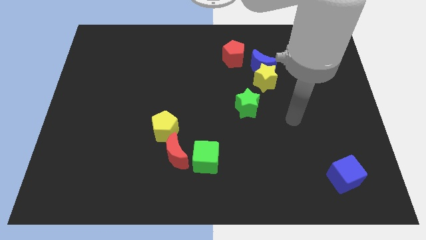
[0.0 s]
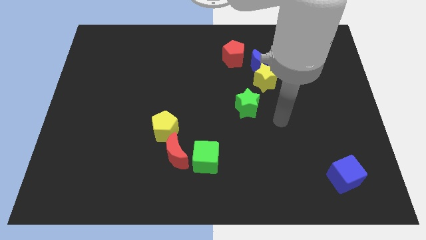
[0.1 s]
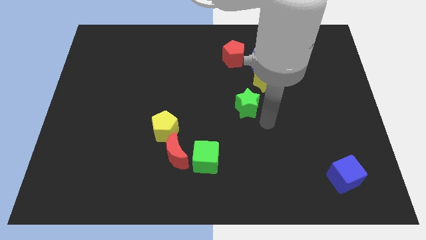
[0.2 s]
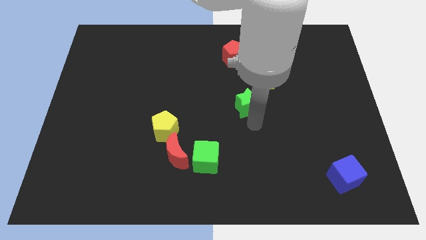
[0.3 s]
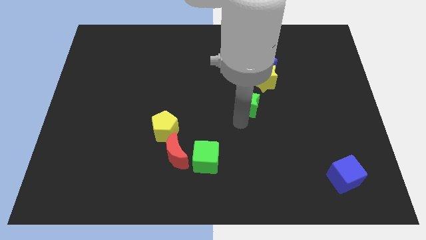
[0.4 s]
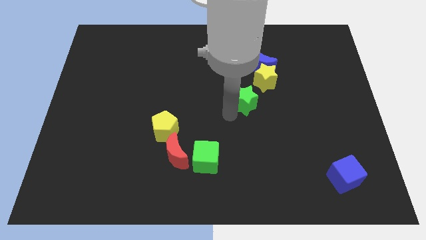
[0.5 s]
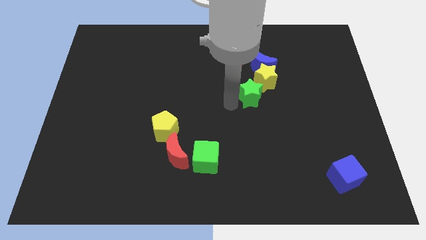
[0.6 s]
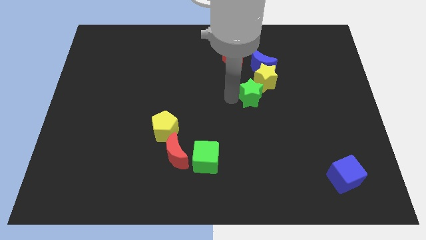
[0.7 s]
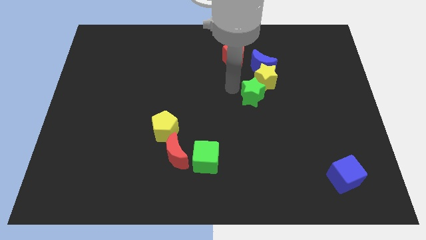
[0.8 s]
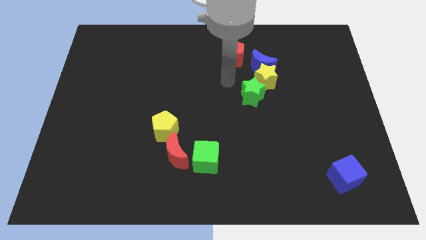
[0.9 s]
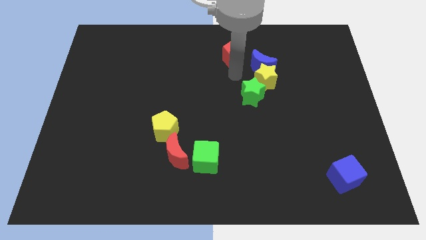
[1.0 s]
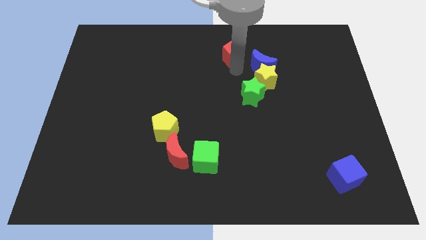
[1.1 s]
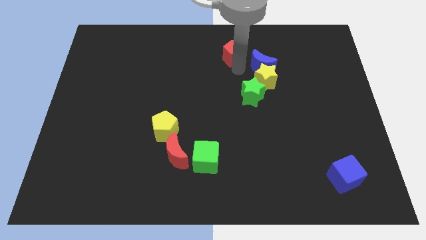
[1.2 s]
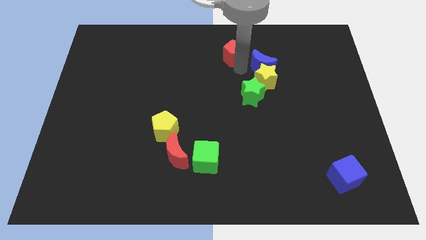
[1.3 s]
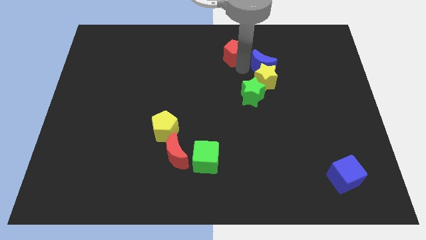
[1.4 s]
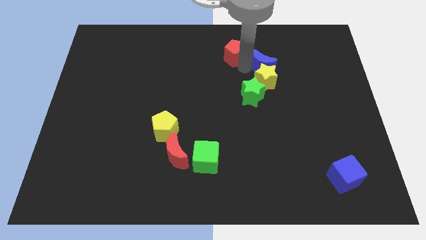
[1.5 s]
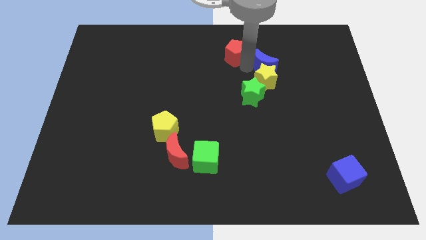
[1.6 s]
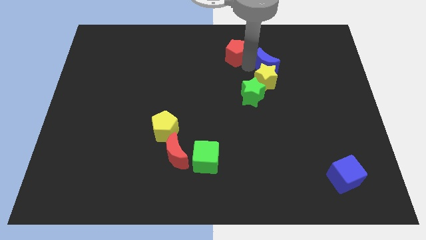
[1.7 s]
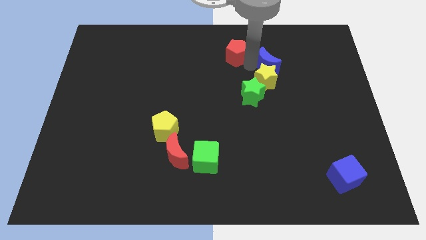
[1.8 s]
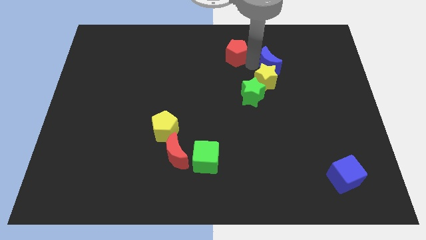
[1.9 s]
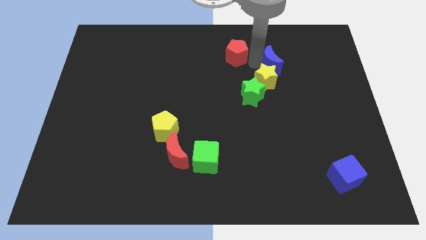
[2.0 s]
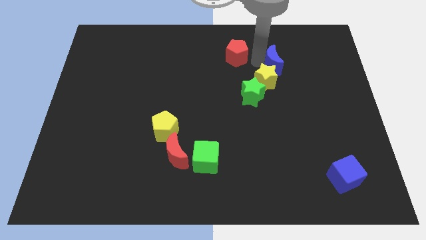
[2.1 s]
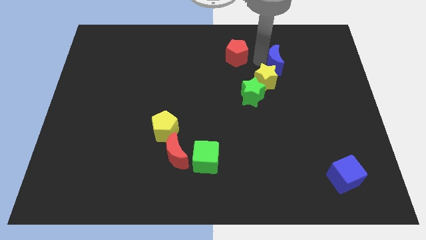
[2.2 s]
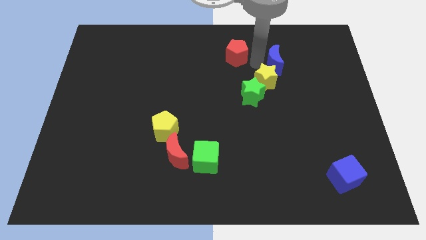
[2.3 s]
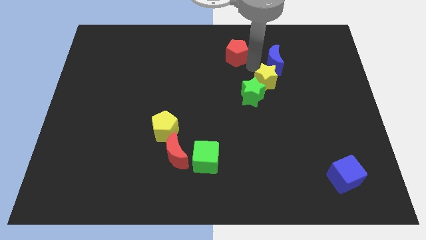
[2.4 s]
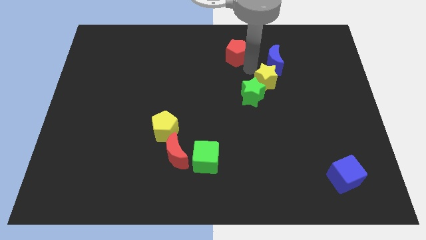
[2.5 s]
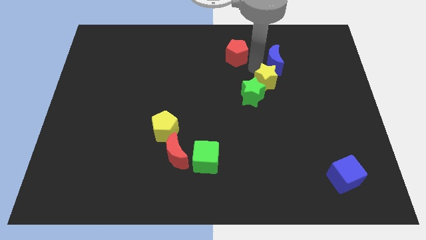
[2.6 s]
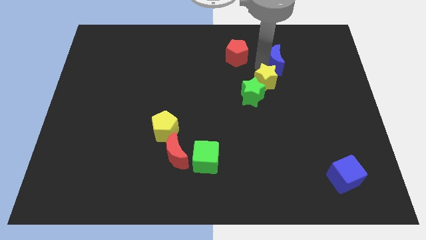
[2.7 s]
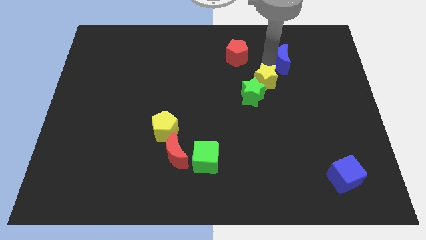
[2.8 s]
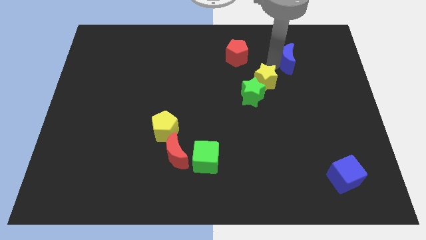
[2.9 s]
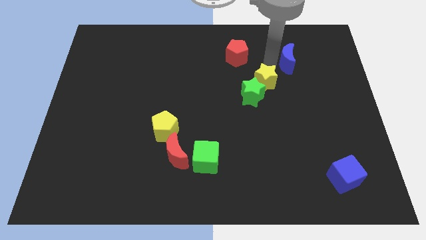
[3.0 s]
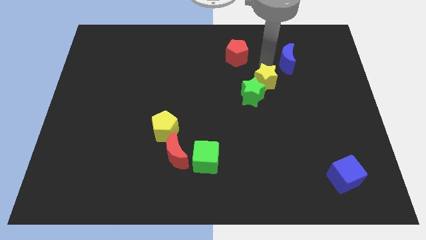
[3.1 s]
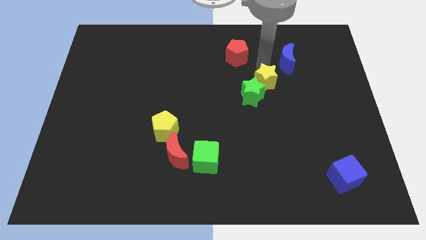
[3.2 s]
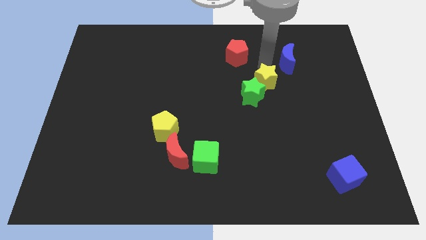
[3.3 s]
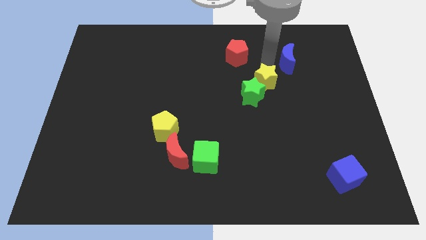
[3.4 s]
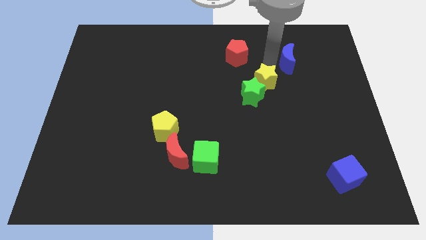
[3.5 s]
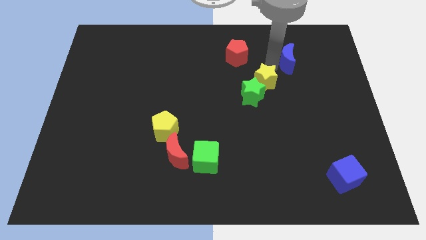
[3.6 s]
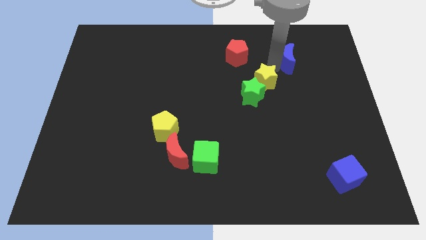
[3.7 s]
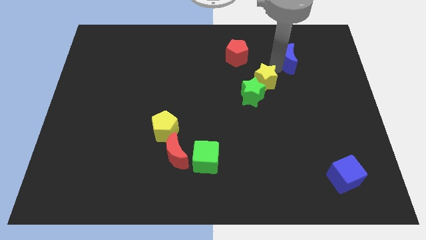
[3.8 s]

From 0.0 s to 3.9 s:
pull the blue moon apart from the yellow star and red pentagon

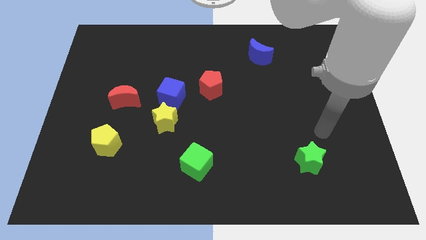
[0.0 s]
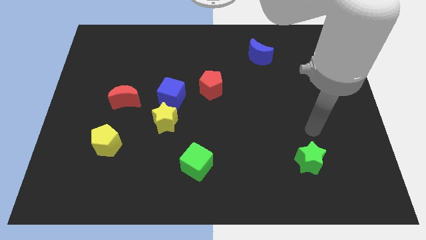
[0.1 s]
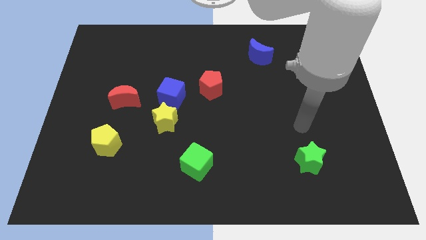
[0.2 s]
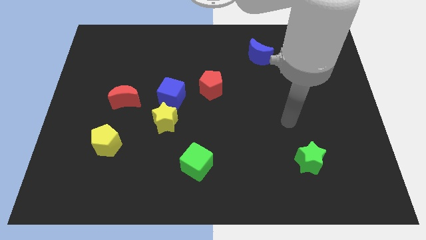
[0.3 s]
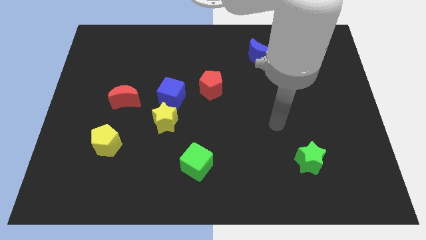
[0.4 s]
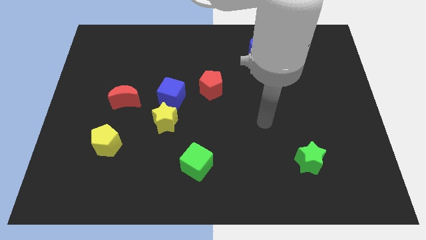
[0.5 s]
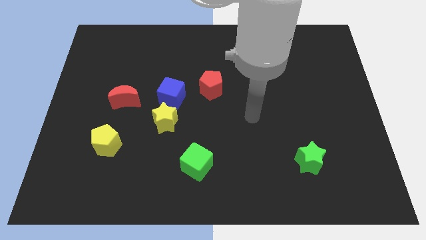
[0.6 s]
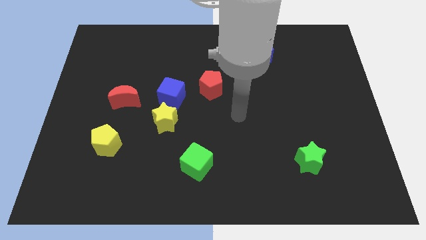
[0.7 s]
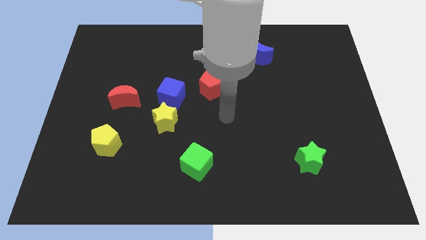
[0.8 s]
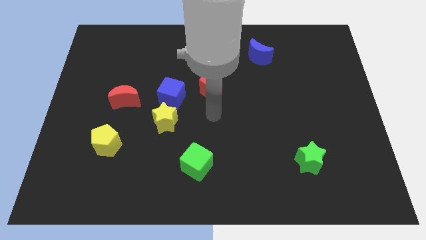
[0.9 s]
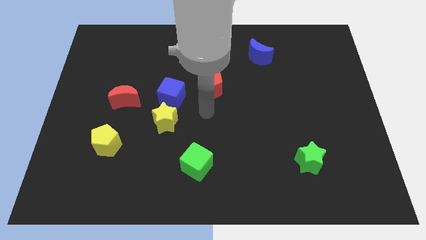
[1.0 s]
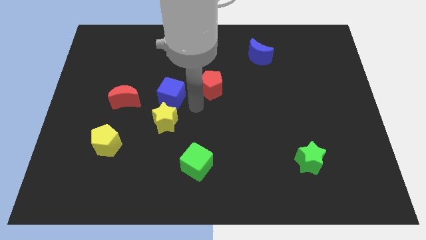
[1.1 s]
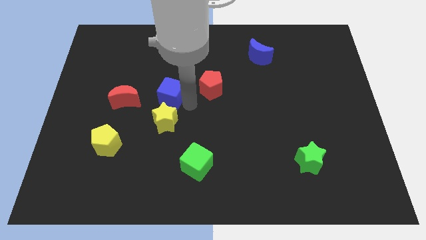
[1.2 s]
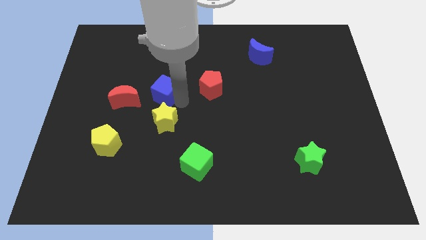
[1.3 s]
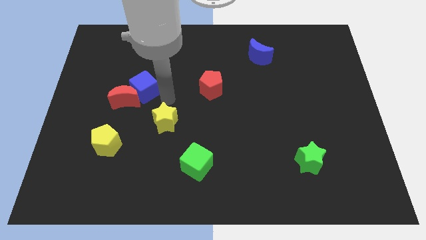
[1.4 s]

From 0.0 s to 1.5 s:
pull the yellow star apart from the blue cube

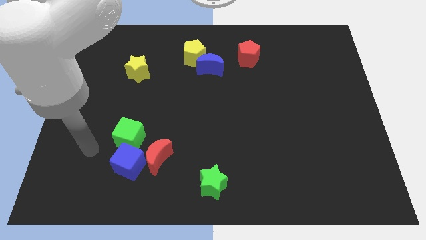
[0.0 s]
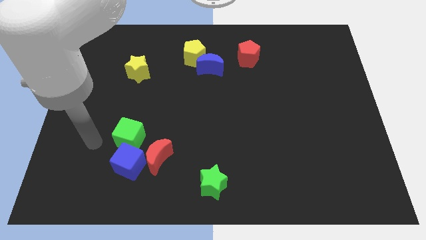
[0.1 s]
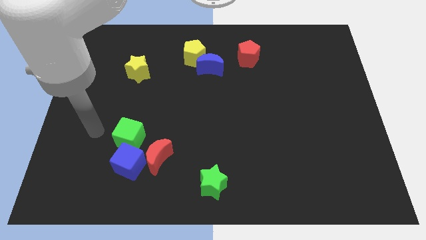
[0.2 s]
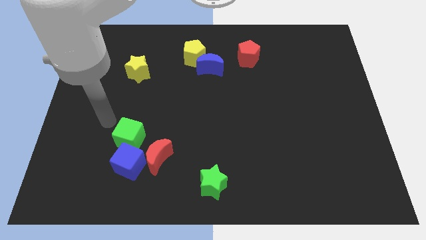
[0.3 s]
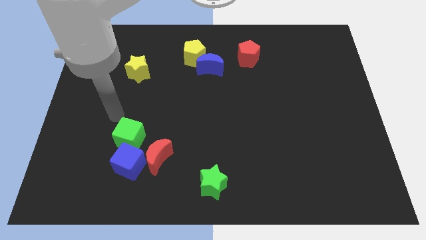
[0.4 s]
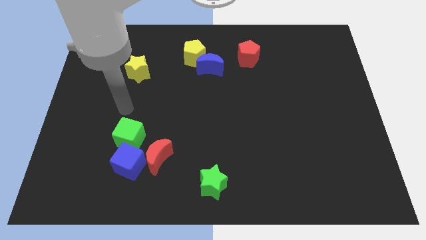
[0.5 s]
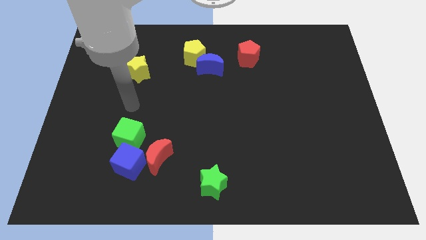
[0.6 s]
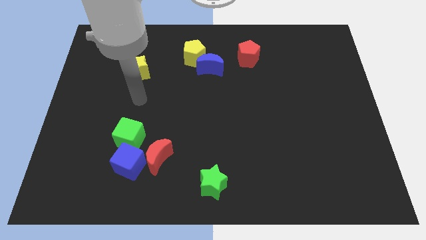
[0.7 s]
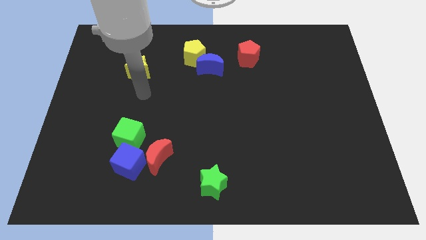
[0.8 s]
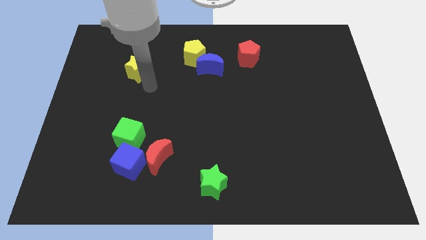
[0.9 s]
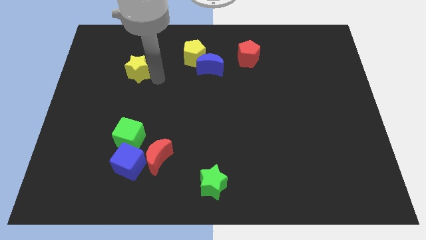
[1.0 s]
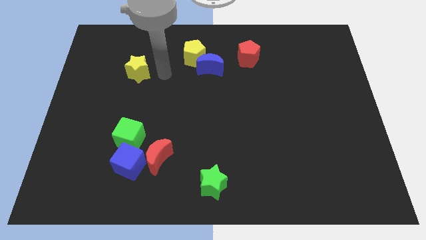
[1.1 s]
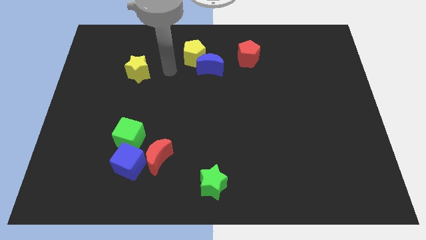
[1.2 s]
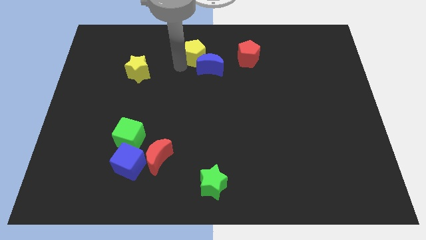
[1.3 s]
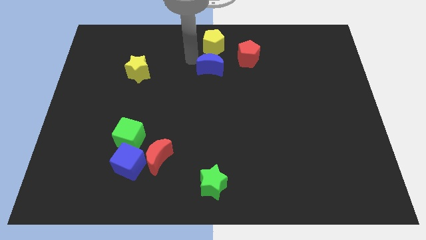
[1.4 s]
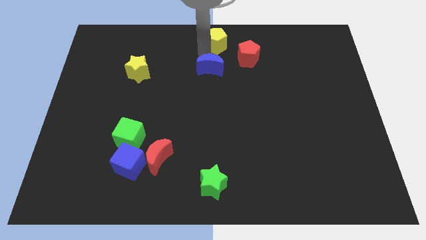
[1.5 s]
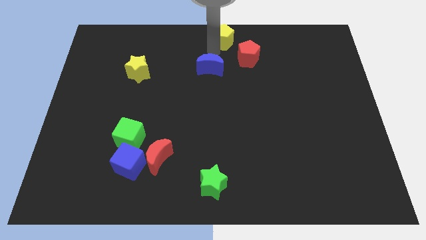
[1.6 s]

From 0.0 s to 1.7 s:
pull the blue moon apart from the yellow pentagon

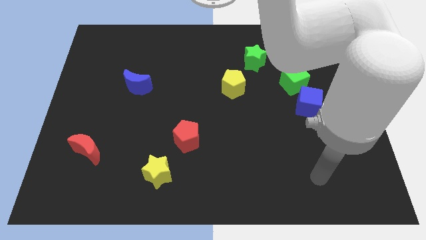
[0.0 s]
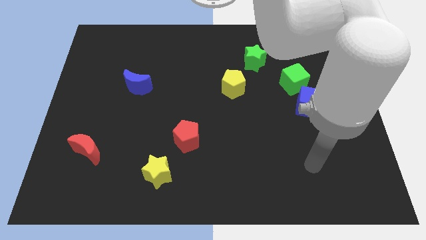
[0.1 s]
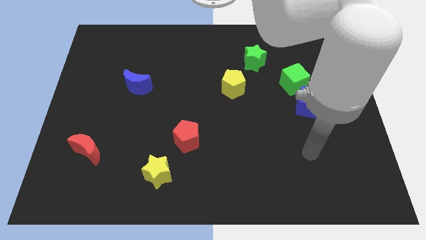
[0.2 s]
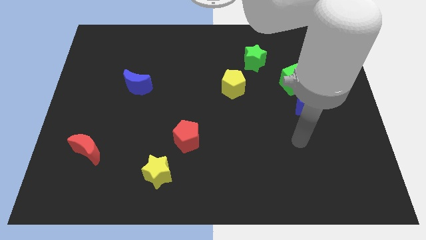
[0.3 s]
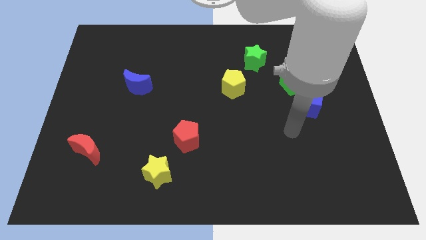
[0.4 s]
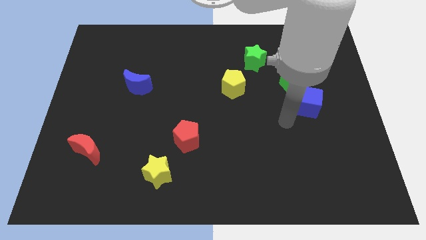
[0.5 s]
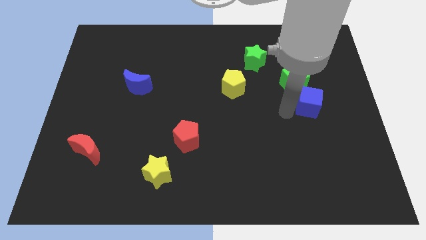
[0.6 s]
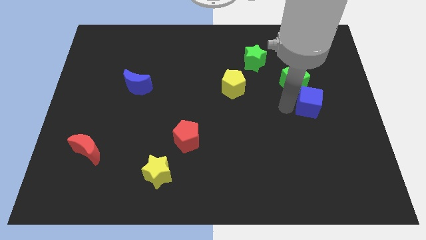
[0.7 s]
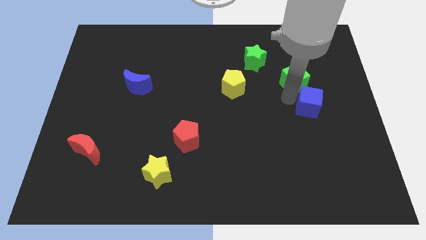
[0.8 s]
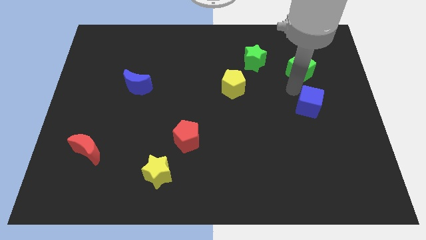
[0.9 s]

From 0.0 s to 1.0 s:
pull the blue cube apart from the green cube

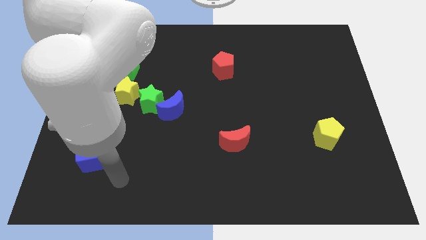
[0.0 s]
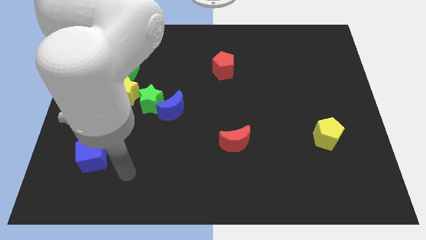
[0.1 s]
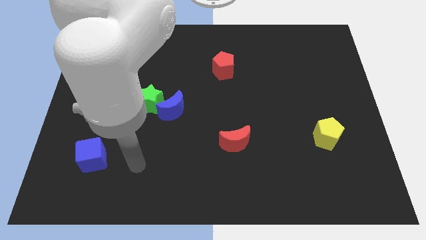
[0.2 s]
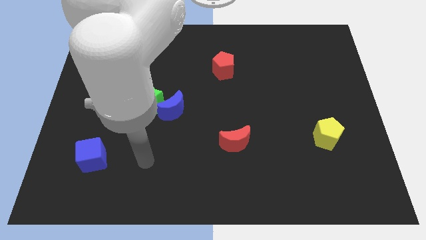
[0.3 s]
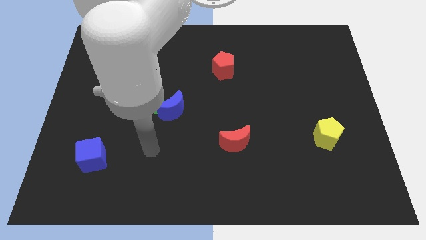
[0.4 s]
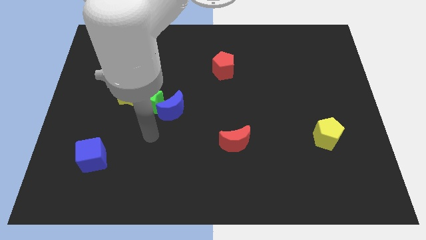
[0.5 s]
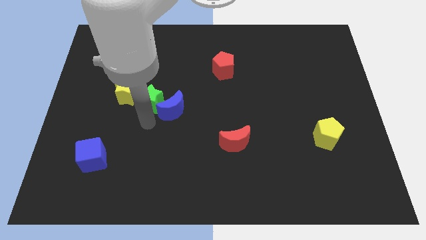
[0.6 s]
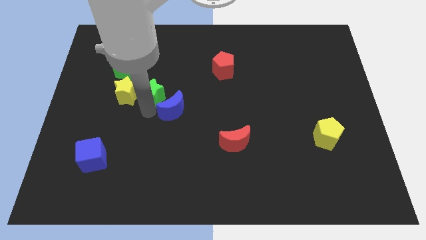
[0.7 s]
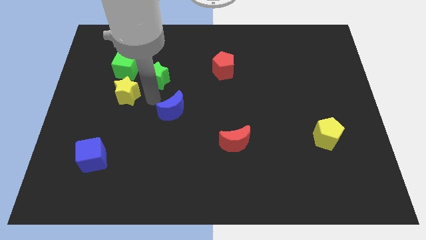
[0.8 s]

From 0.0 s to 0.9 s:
move the blue moon away from the green star

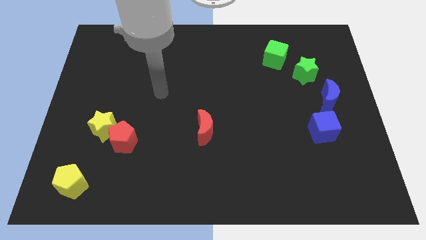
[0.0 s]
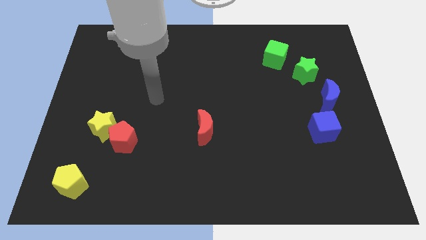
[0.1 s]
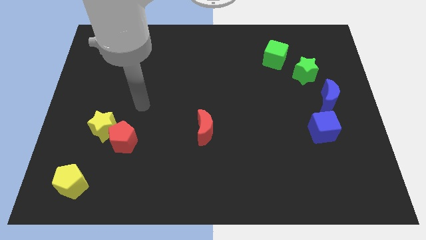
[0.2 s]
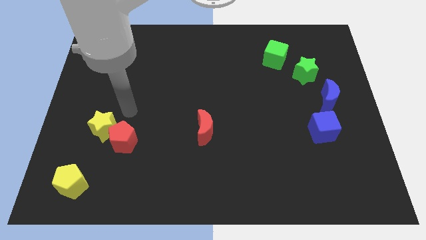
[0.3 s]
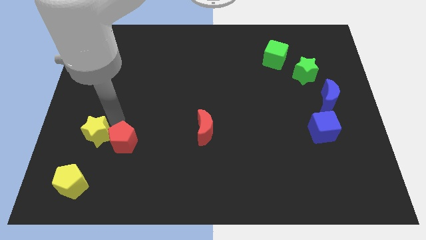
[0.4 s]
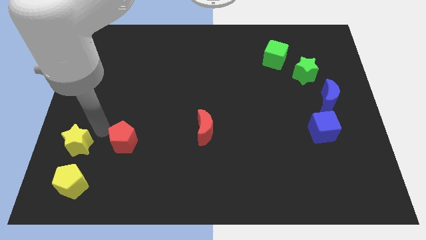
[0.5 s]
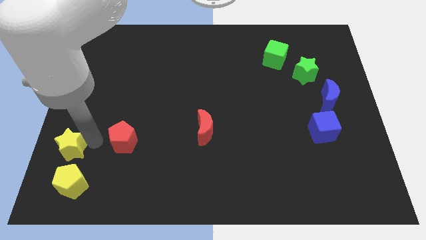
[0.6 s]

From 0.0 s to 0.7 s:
pull the red pentagon apart from the yellow star
